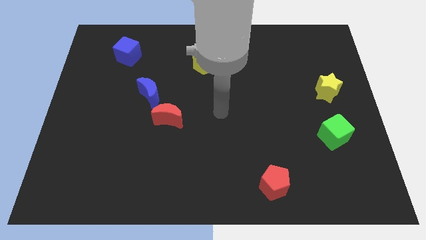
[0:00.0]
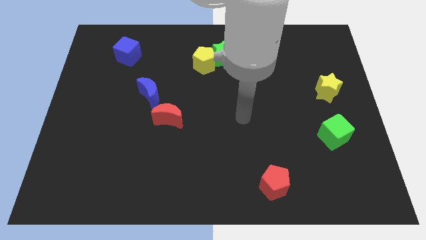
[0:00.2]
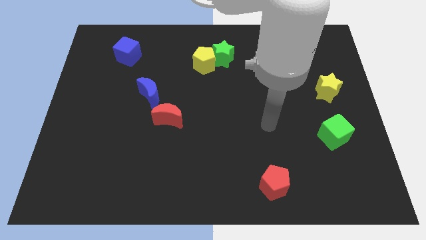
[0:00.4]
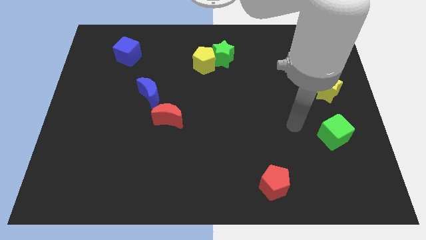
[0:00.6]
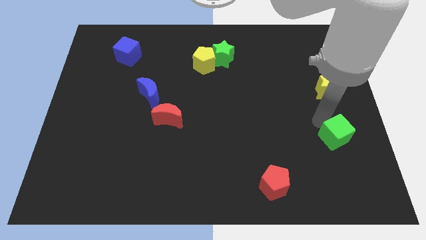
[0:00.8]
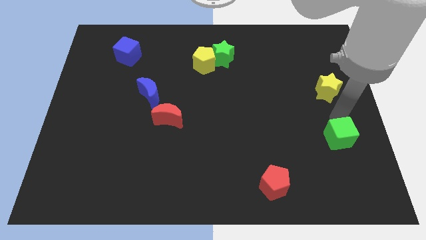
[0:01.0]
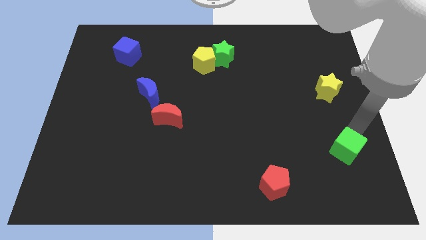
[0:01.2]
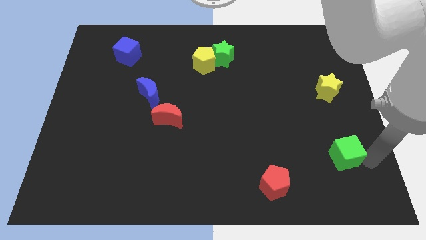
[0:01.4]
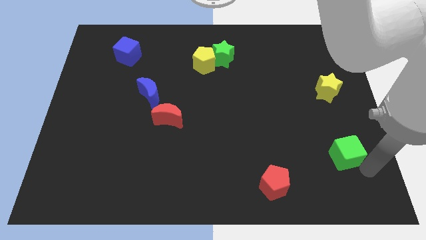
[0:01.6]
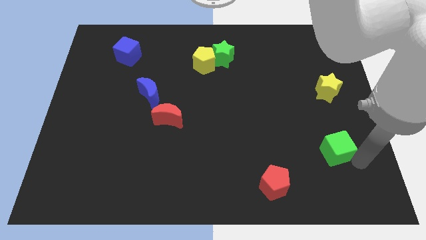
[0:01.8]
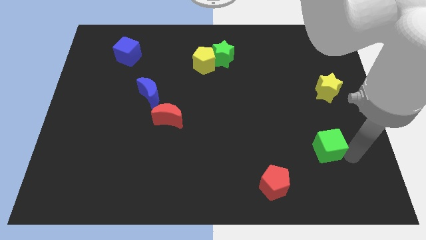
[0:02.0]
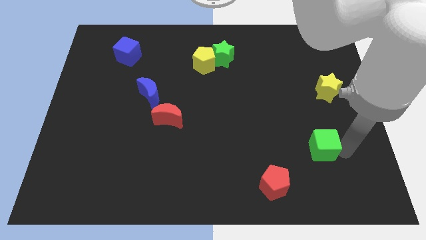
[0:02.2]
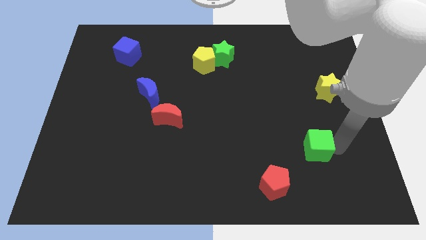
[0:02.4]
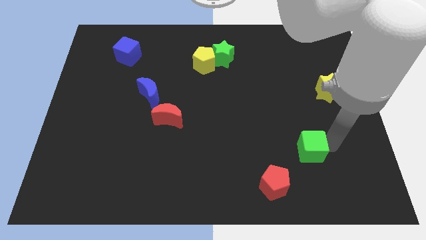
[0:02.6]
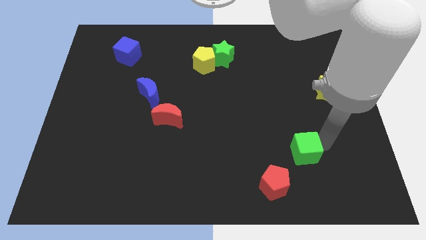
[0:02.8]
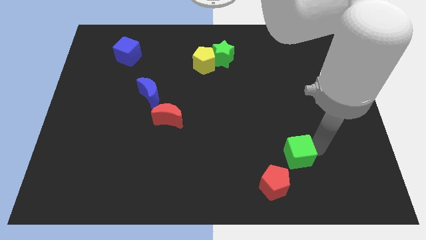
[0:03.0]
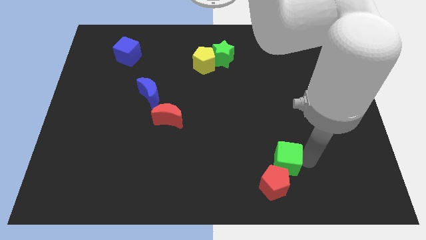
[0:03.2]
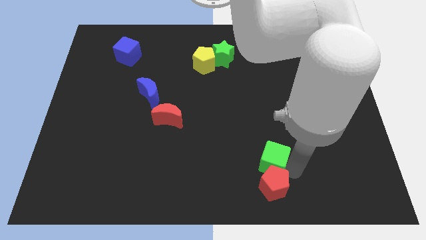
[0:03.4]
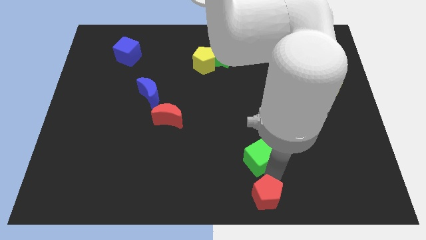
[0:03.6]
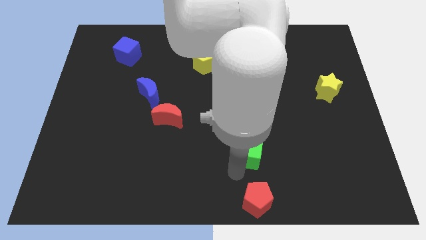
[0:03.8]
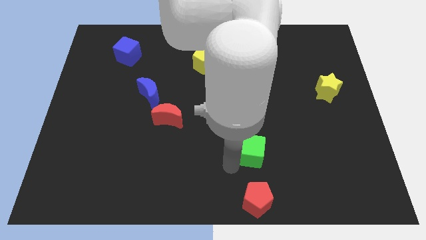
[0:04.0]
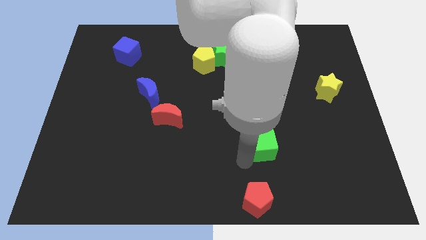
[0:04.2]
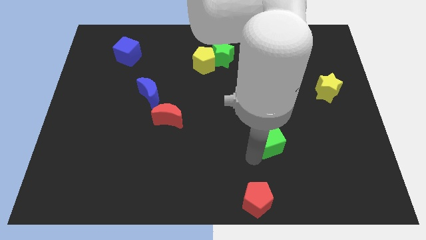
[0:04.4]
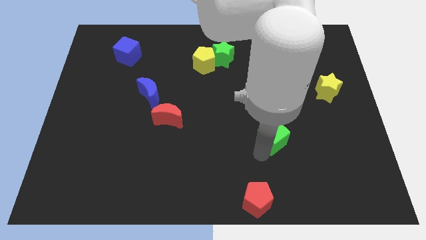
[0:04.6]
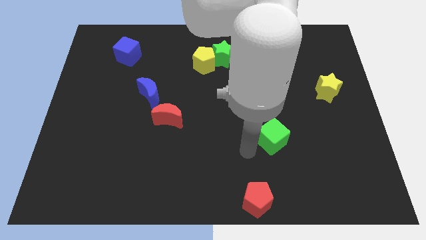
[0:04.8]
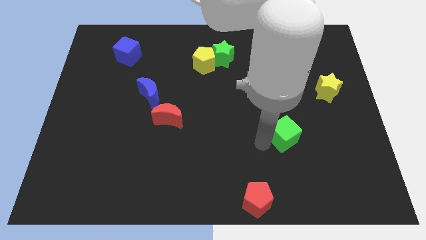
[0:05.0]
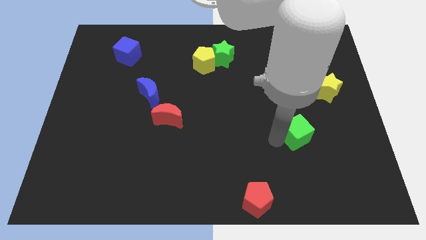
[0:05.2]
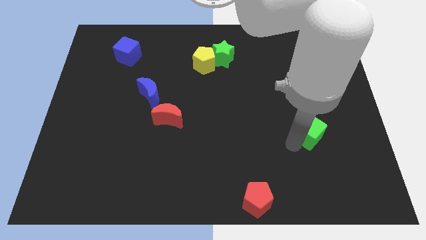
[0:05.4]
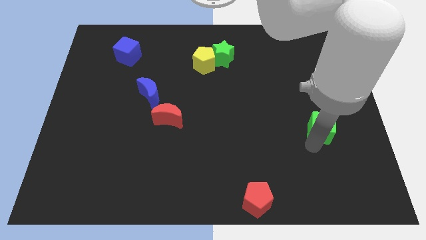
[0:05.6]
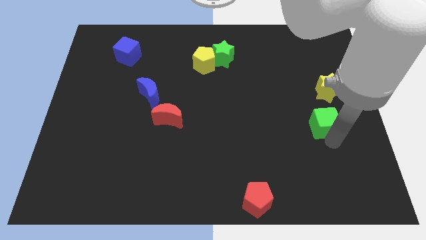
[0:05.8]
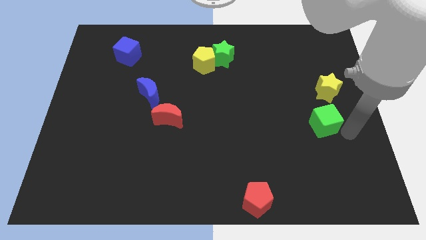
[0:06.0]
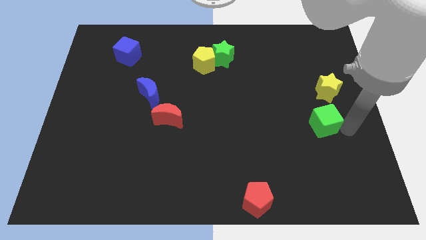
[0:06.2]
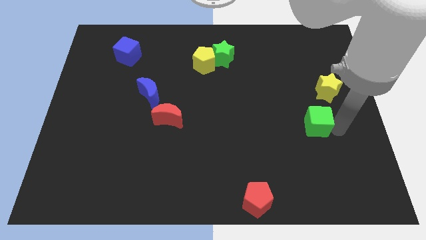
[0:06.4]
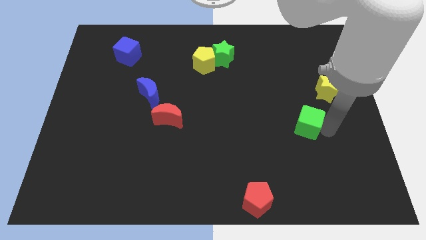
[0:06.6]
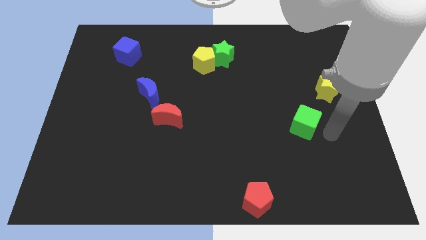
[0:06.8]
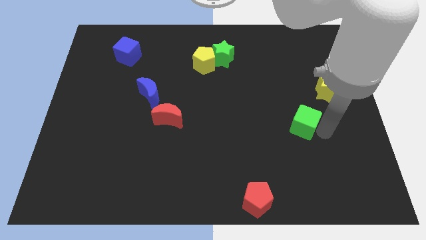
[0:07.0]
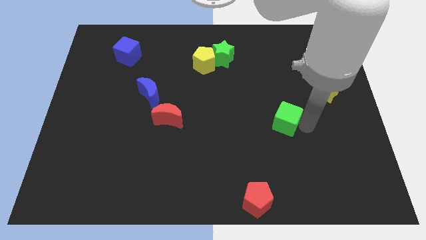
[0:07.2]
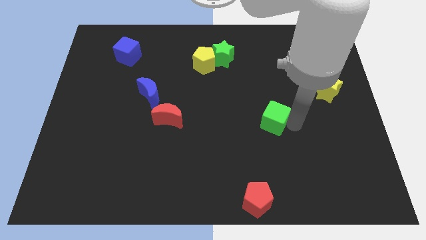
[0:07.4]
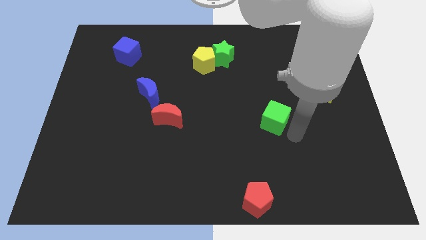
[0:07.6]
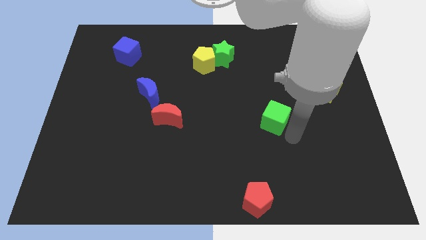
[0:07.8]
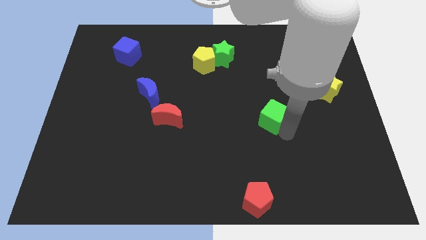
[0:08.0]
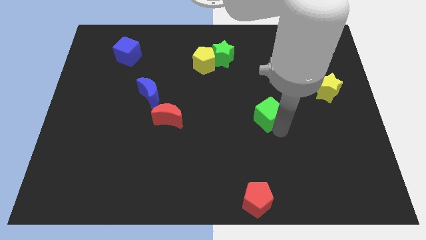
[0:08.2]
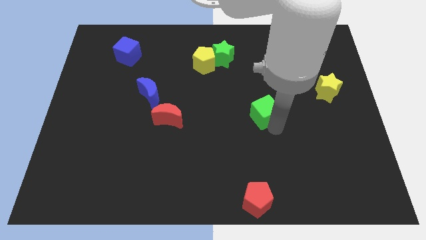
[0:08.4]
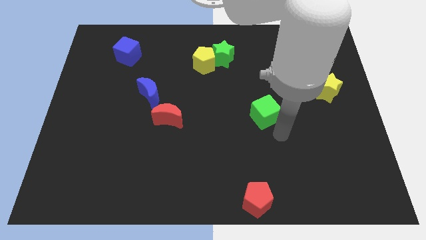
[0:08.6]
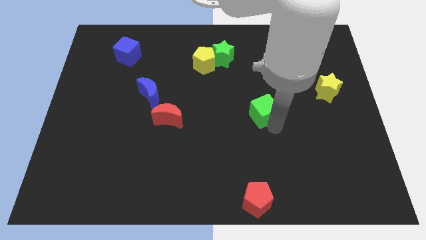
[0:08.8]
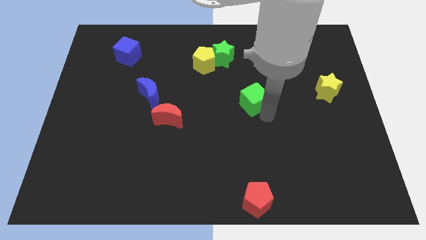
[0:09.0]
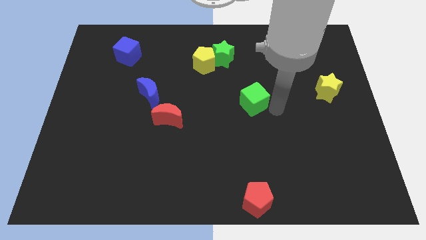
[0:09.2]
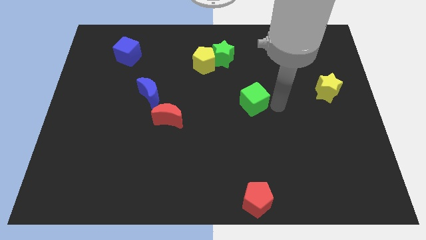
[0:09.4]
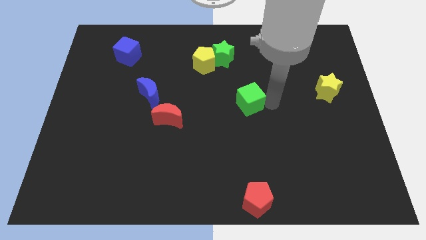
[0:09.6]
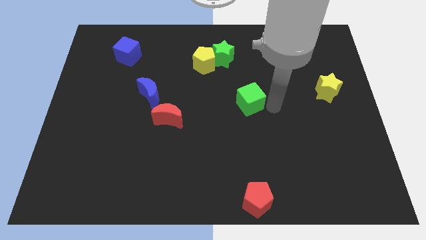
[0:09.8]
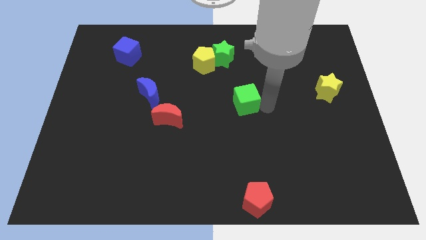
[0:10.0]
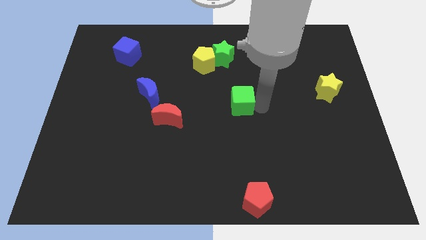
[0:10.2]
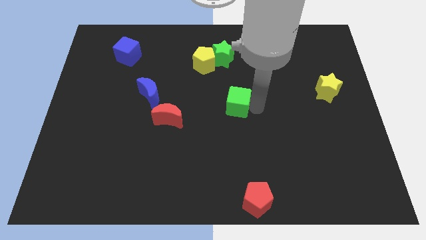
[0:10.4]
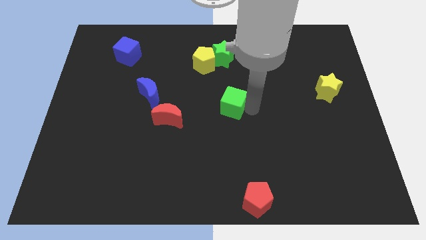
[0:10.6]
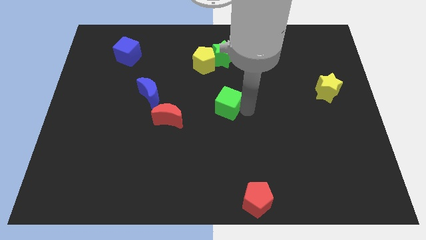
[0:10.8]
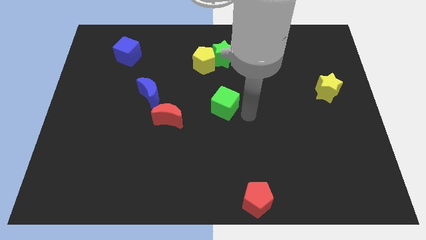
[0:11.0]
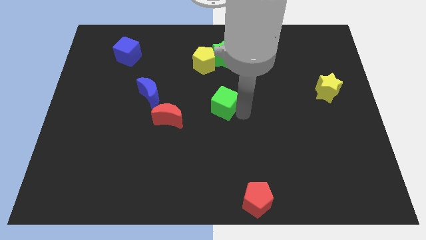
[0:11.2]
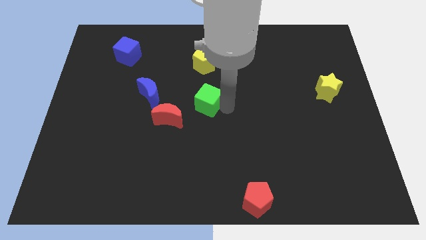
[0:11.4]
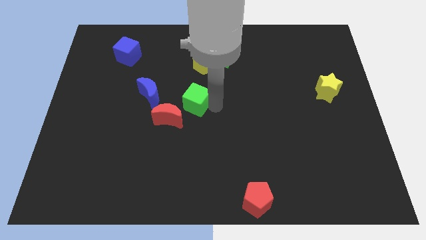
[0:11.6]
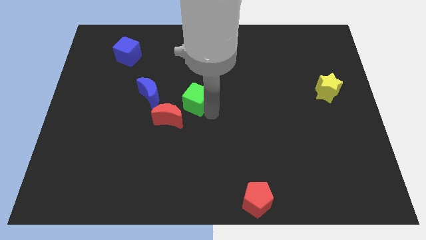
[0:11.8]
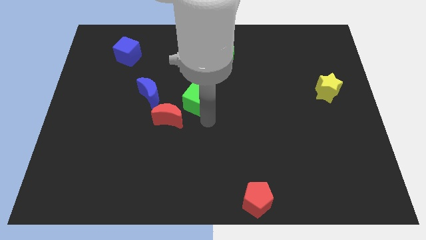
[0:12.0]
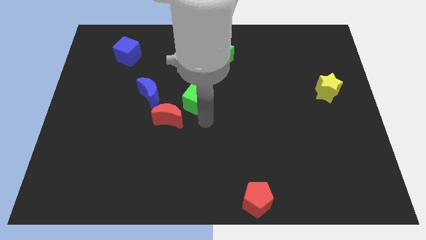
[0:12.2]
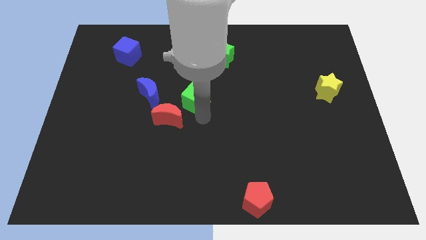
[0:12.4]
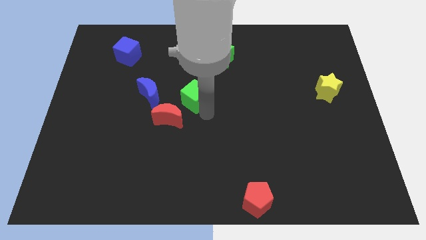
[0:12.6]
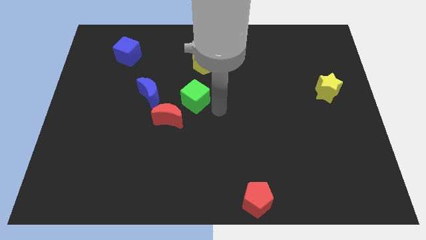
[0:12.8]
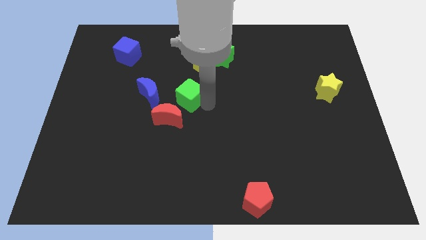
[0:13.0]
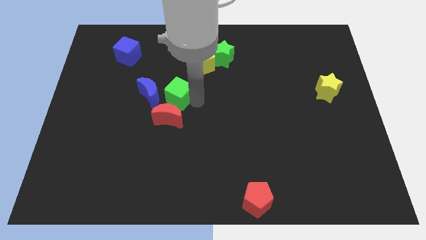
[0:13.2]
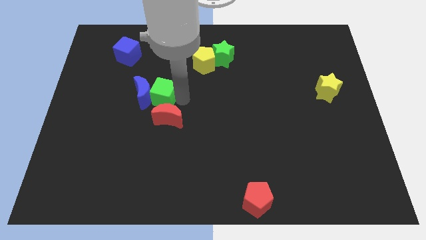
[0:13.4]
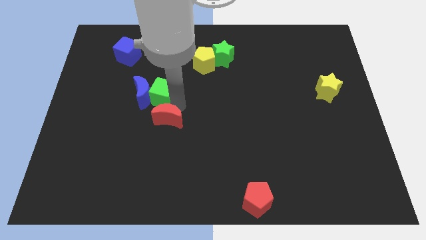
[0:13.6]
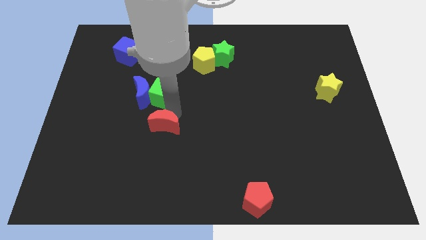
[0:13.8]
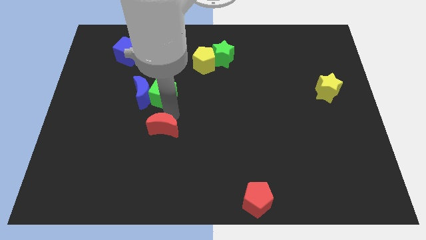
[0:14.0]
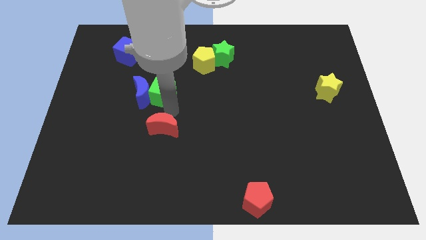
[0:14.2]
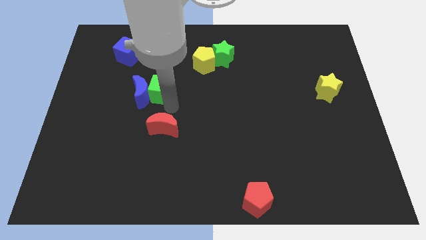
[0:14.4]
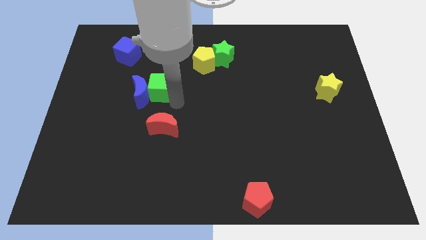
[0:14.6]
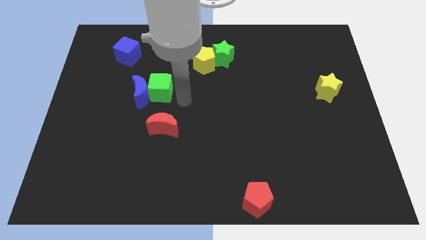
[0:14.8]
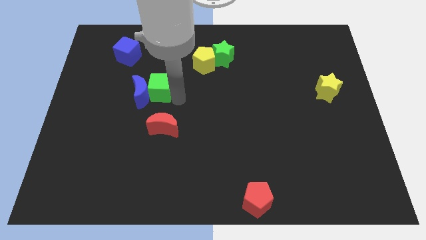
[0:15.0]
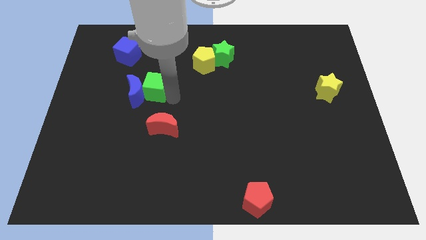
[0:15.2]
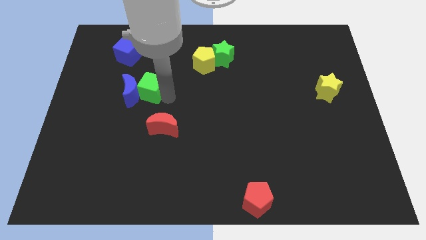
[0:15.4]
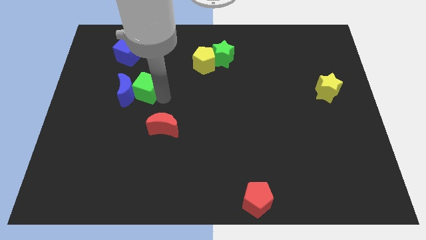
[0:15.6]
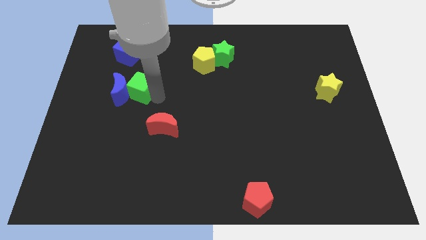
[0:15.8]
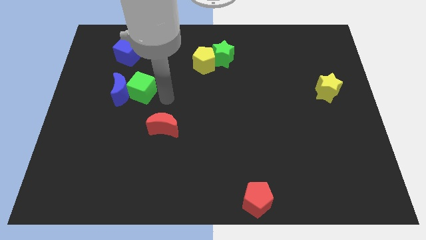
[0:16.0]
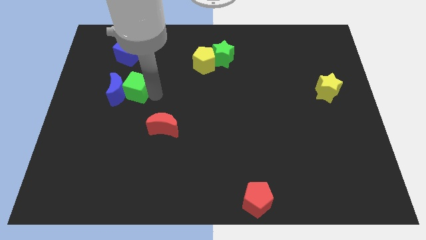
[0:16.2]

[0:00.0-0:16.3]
move the green cube to the bottom side of the blue cube
